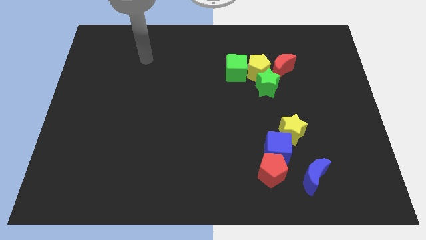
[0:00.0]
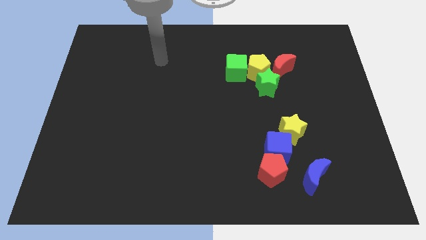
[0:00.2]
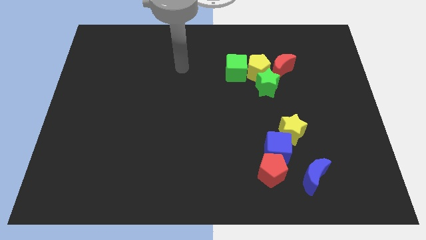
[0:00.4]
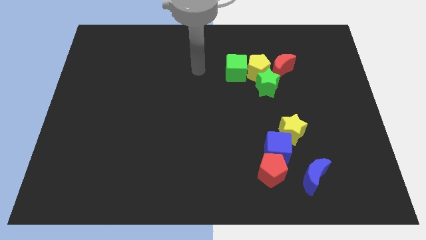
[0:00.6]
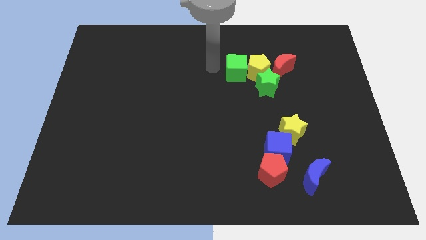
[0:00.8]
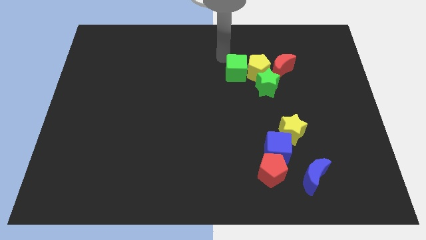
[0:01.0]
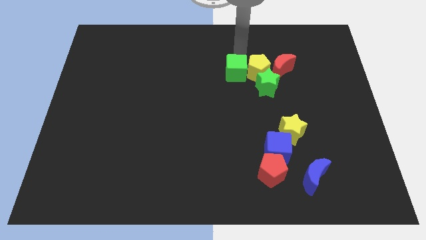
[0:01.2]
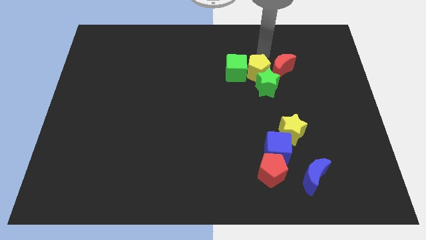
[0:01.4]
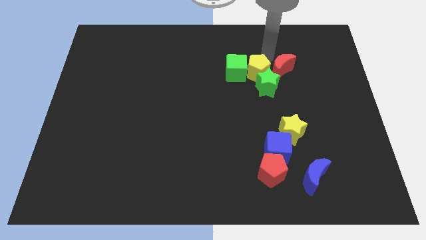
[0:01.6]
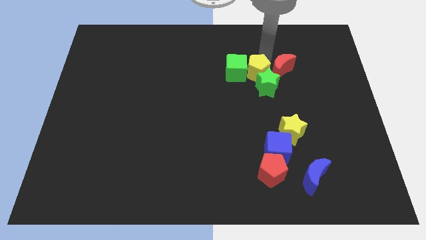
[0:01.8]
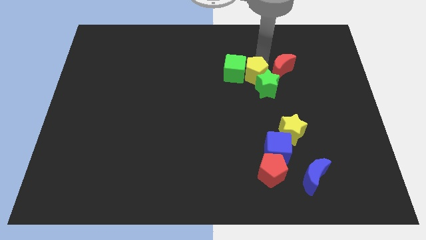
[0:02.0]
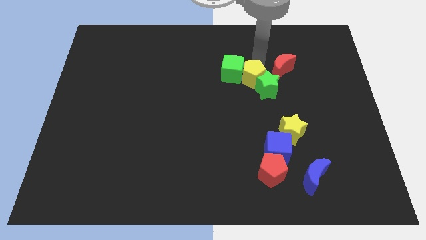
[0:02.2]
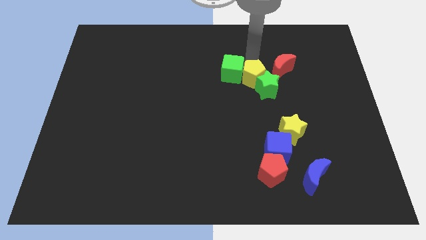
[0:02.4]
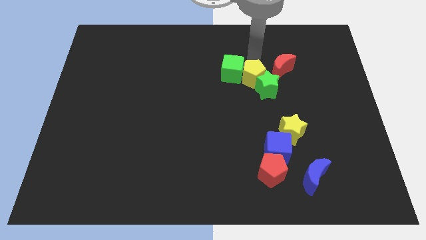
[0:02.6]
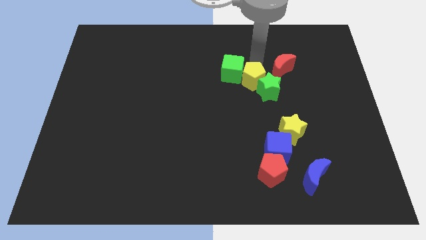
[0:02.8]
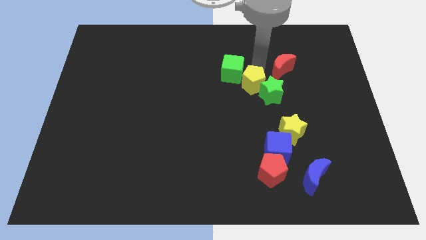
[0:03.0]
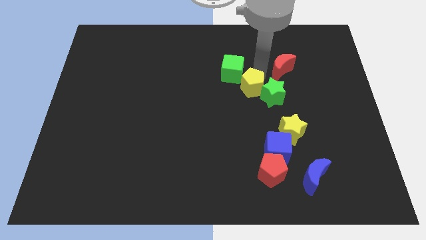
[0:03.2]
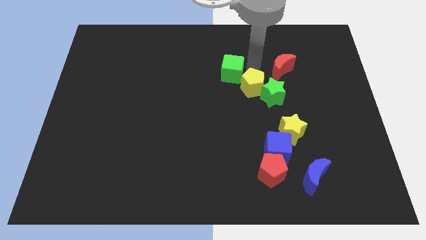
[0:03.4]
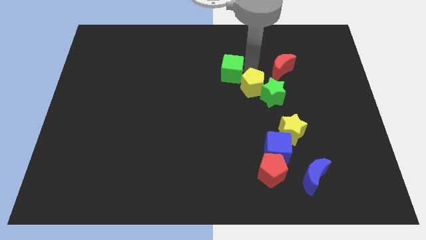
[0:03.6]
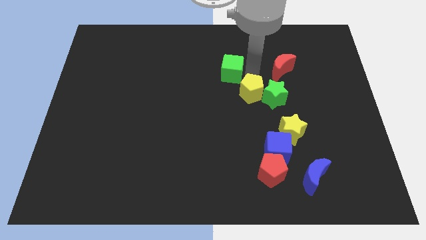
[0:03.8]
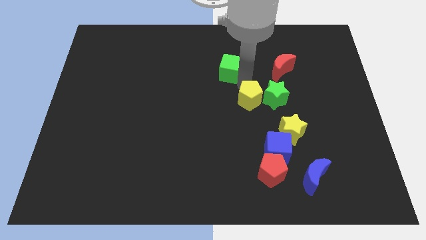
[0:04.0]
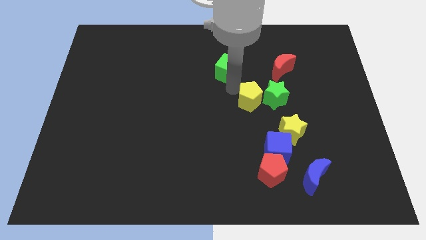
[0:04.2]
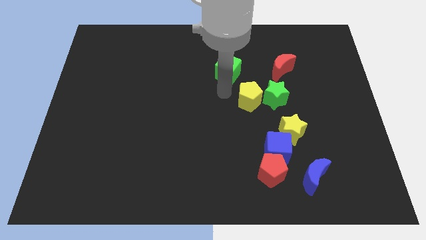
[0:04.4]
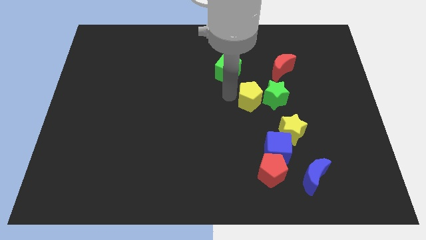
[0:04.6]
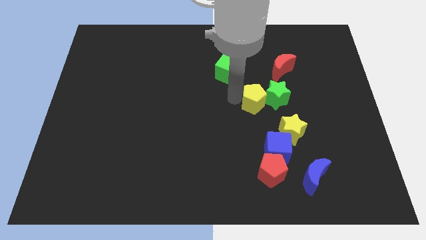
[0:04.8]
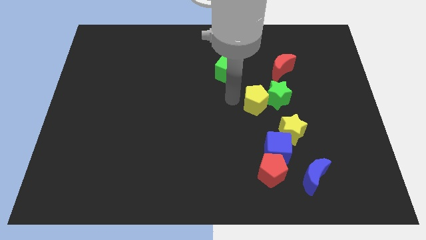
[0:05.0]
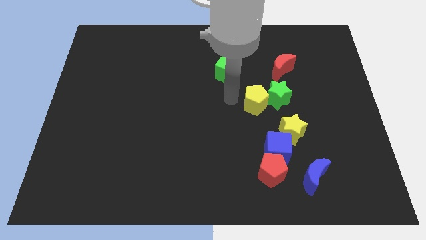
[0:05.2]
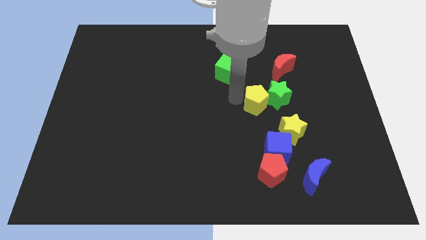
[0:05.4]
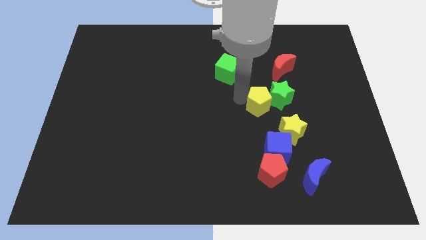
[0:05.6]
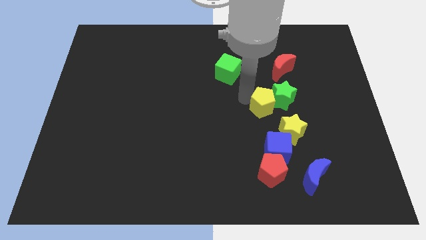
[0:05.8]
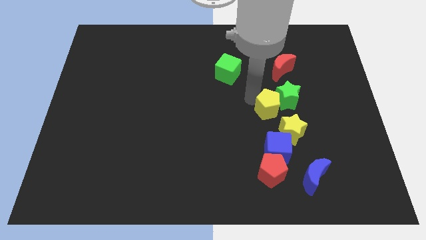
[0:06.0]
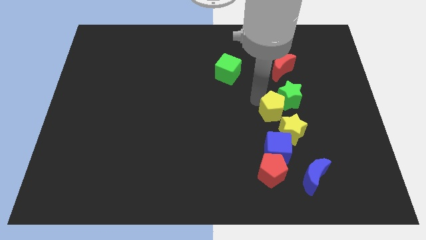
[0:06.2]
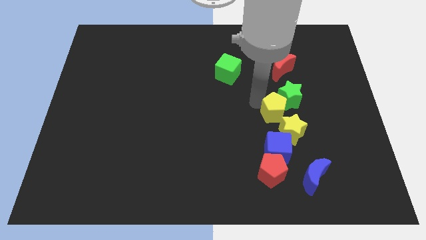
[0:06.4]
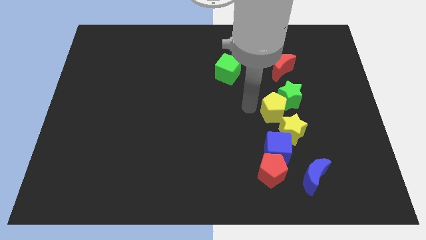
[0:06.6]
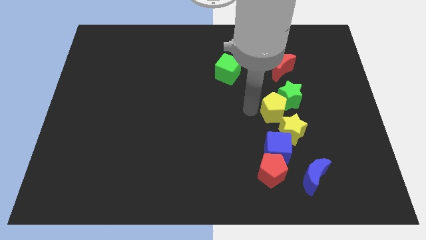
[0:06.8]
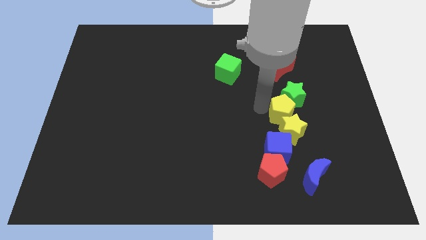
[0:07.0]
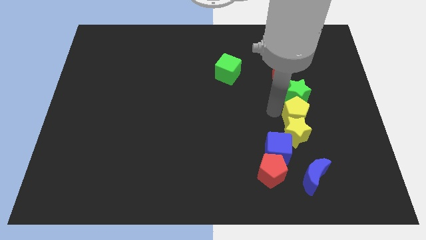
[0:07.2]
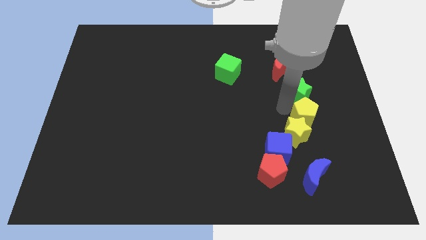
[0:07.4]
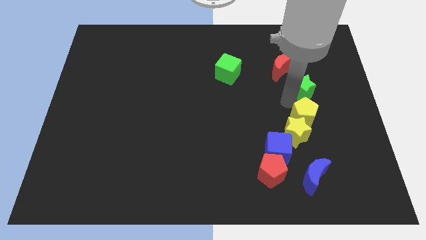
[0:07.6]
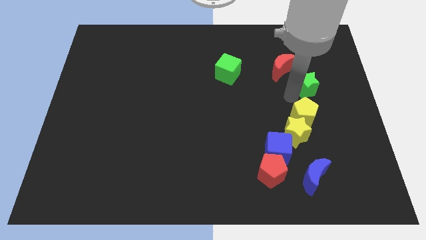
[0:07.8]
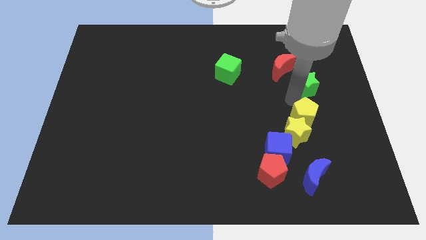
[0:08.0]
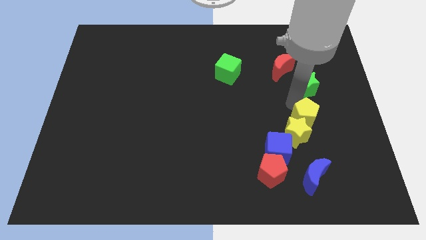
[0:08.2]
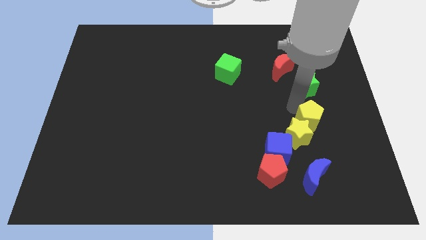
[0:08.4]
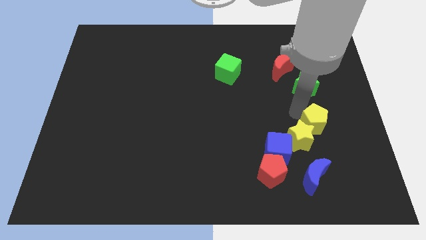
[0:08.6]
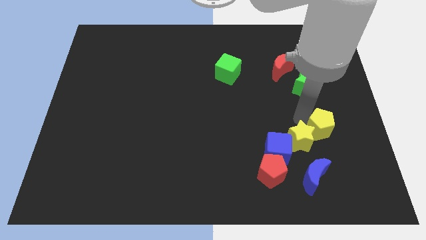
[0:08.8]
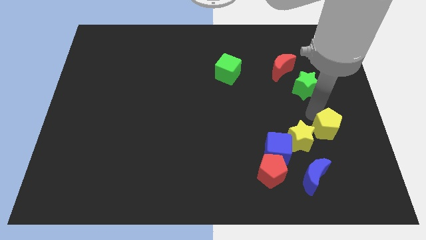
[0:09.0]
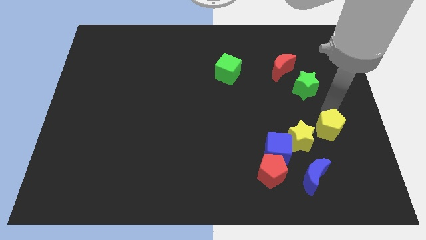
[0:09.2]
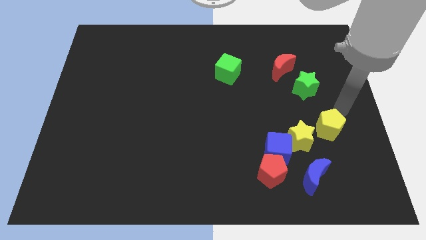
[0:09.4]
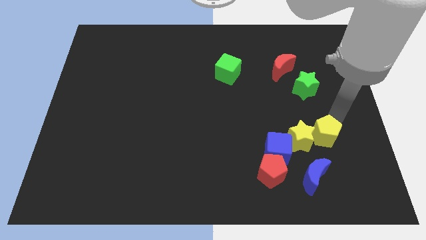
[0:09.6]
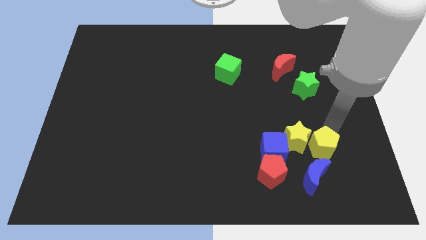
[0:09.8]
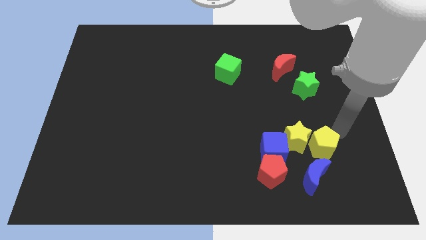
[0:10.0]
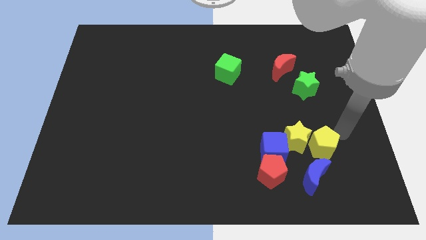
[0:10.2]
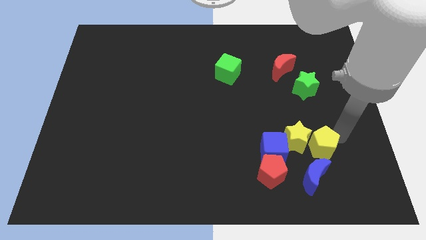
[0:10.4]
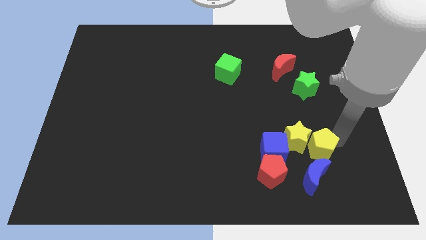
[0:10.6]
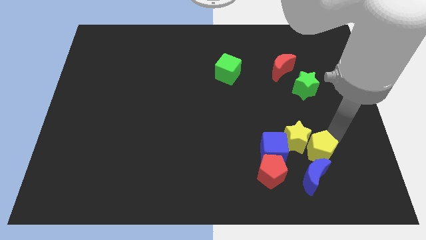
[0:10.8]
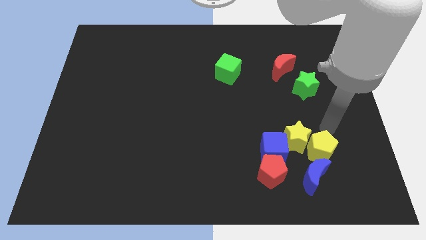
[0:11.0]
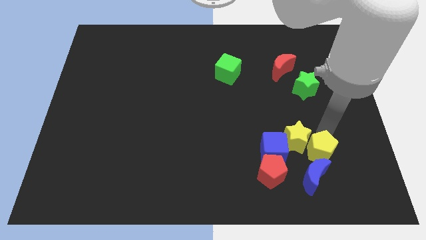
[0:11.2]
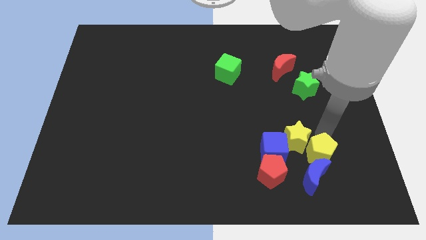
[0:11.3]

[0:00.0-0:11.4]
push the yellow pentagon close to the blue moon

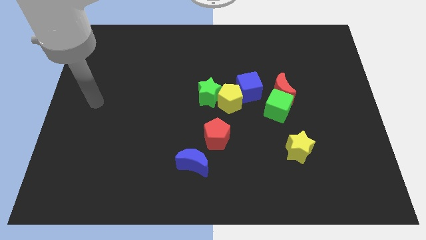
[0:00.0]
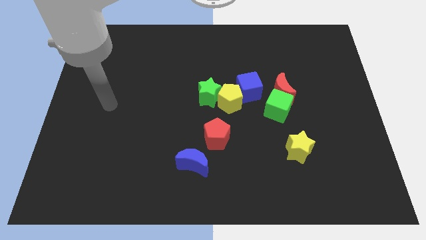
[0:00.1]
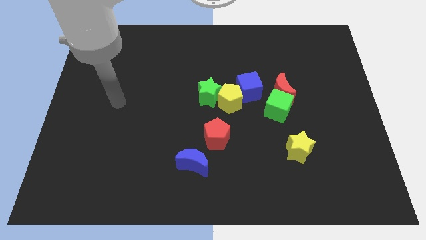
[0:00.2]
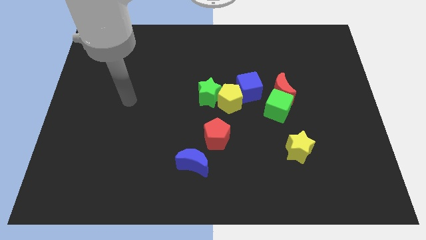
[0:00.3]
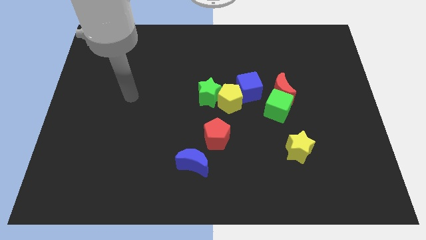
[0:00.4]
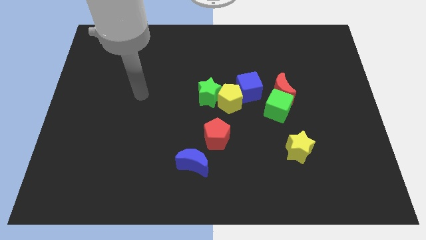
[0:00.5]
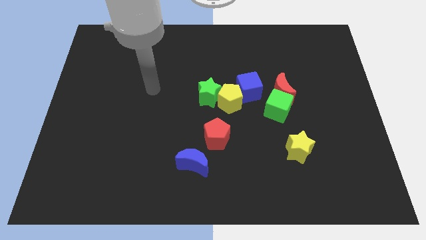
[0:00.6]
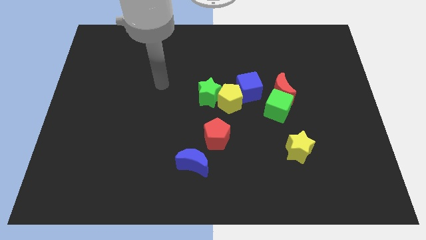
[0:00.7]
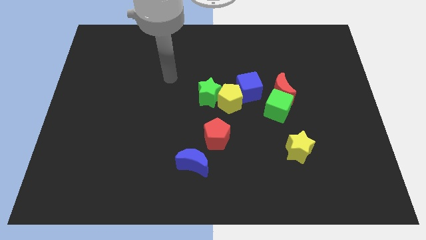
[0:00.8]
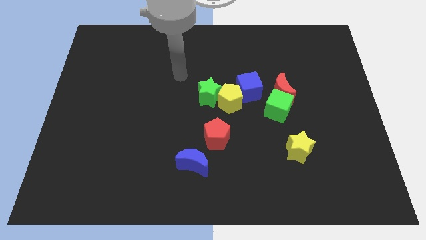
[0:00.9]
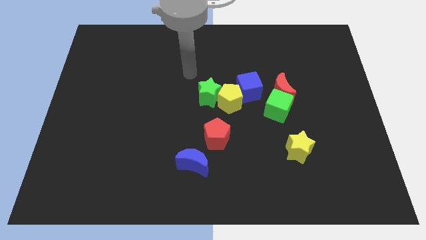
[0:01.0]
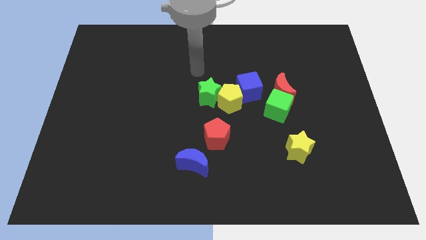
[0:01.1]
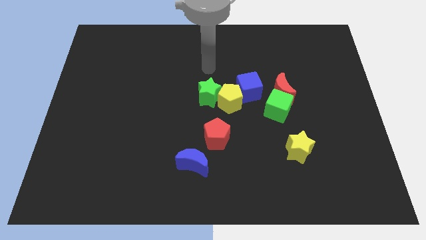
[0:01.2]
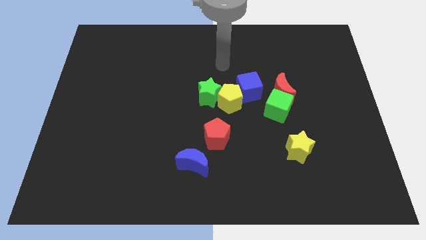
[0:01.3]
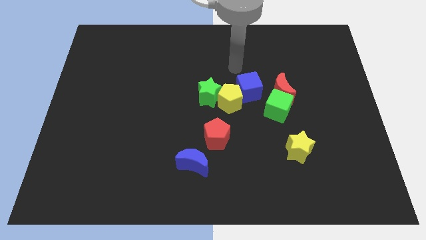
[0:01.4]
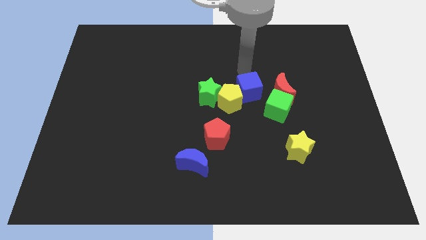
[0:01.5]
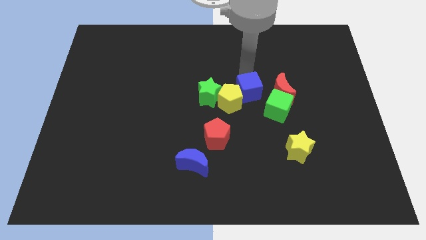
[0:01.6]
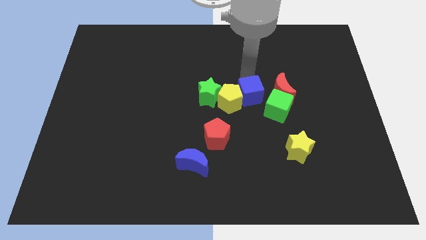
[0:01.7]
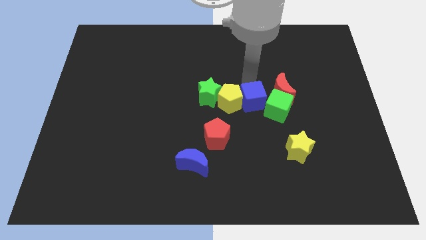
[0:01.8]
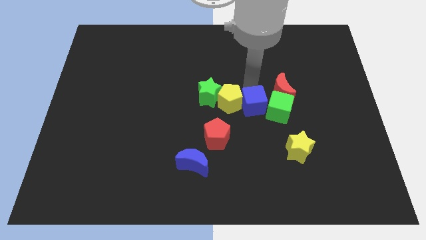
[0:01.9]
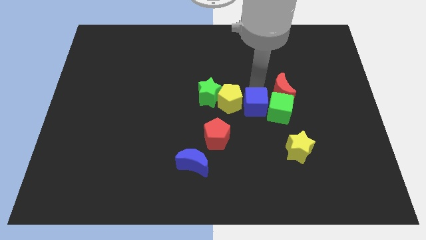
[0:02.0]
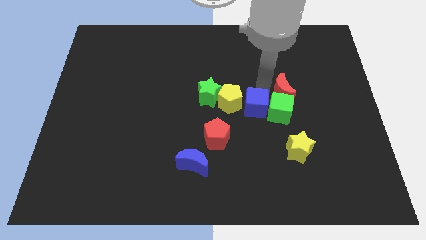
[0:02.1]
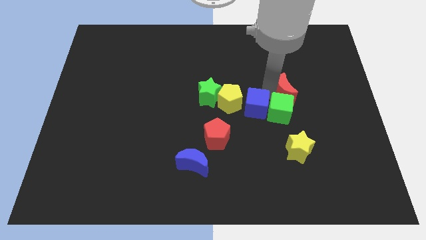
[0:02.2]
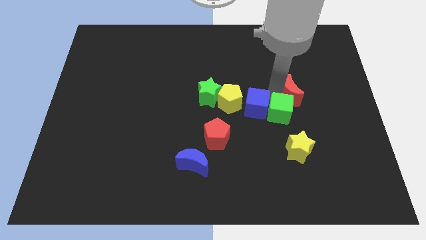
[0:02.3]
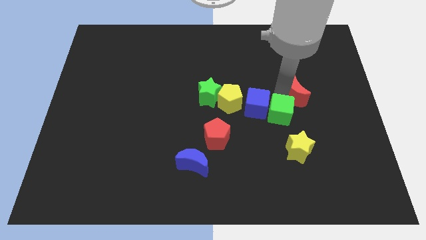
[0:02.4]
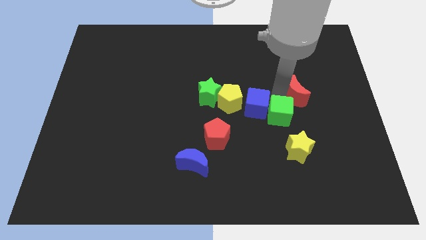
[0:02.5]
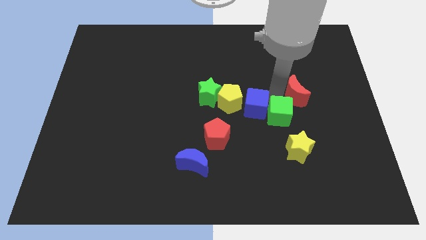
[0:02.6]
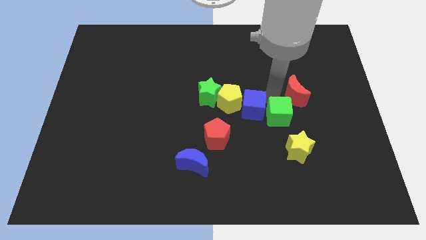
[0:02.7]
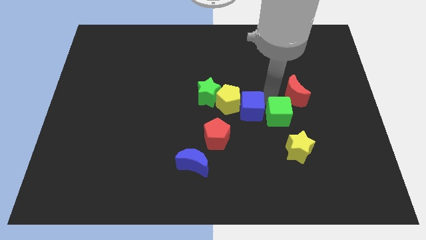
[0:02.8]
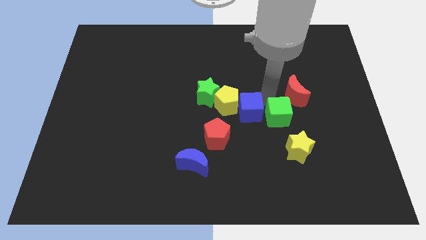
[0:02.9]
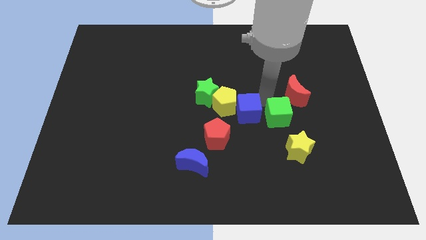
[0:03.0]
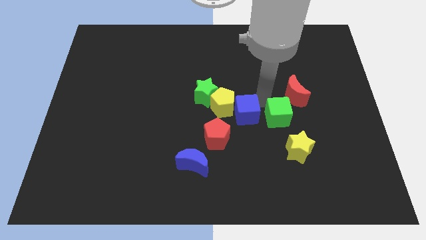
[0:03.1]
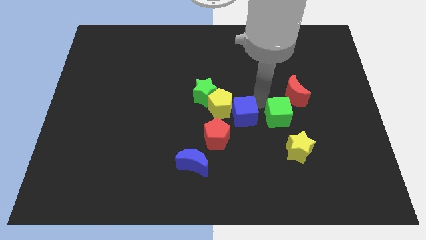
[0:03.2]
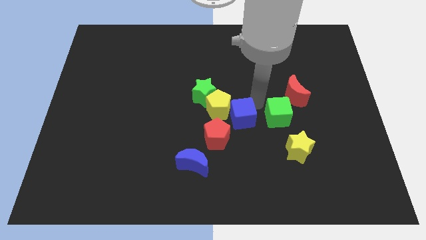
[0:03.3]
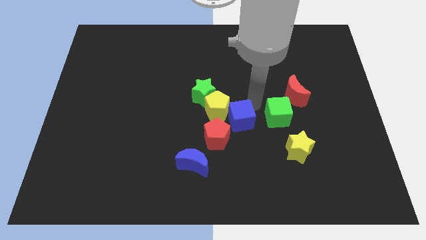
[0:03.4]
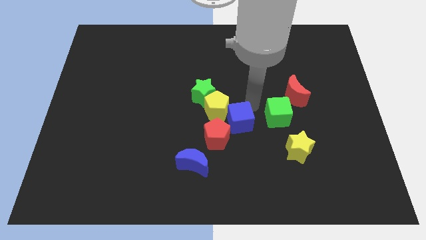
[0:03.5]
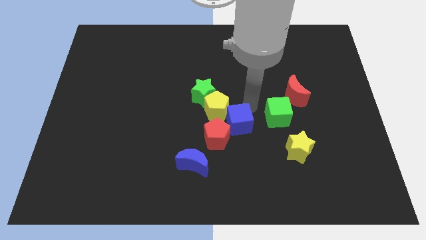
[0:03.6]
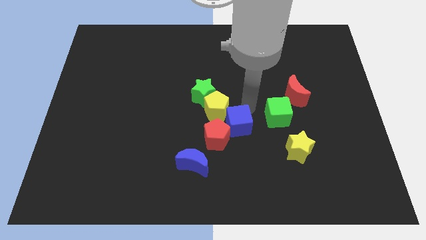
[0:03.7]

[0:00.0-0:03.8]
put the blue cube close to the red pentagon
